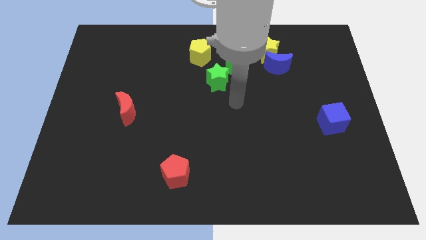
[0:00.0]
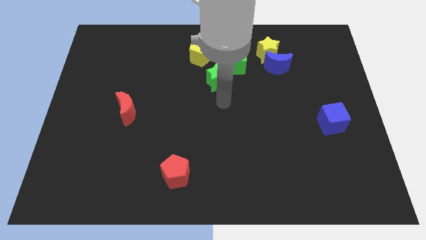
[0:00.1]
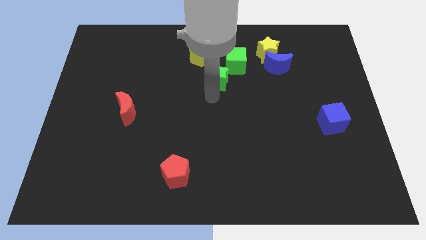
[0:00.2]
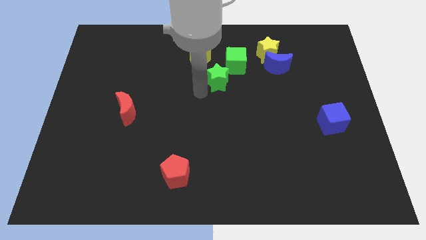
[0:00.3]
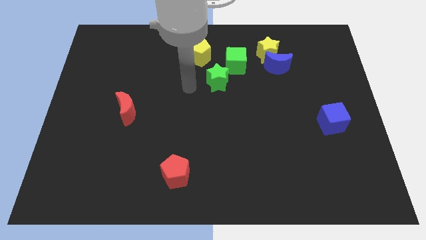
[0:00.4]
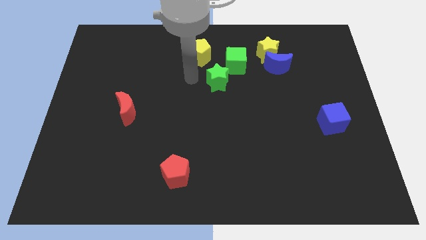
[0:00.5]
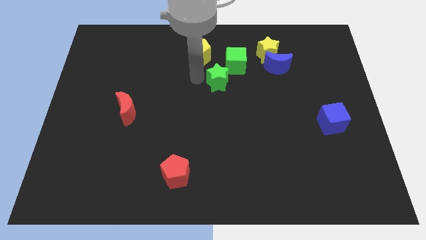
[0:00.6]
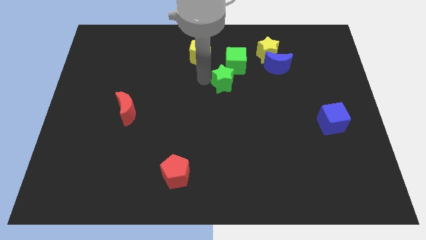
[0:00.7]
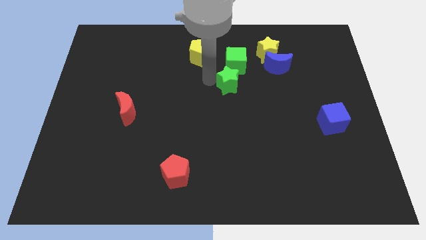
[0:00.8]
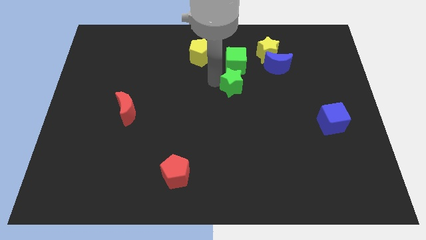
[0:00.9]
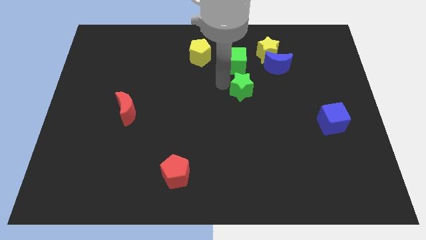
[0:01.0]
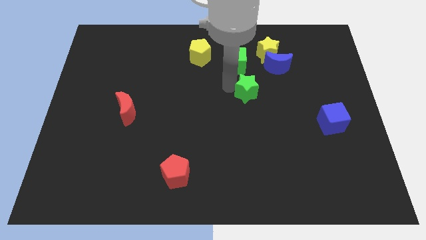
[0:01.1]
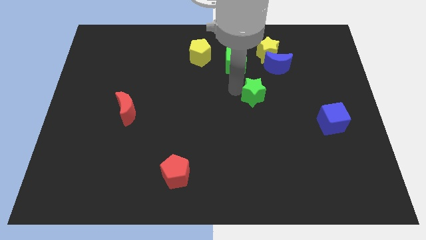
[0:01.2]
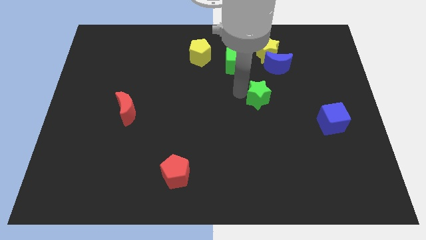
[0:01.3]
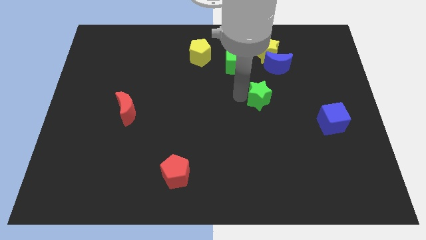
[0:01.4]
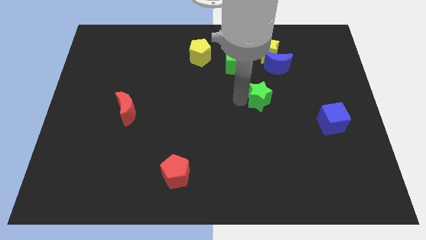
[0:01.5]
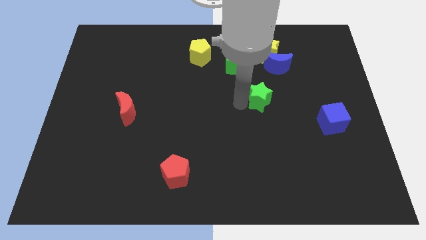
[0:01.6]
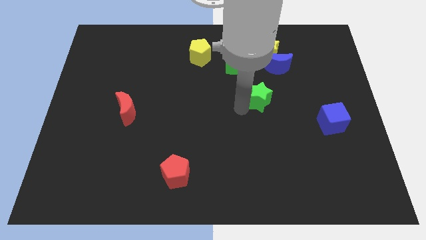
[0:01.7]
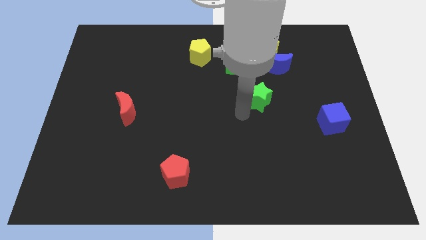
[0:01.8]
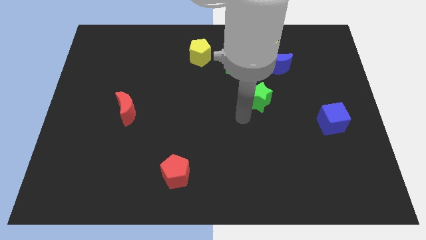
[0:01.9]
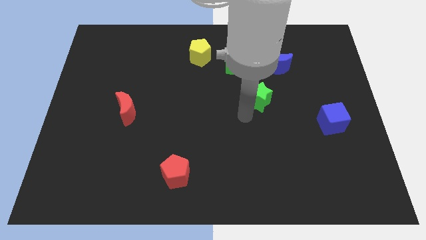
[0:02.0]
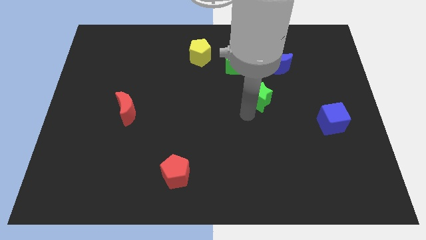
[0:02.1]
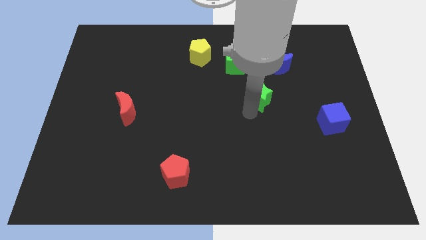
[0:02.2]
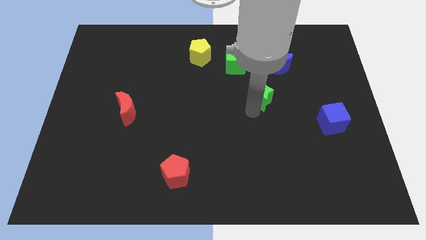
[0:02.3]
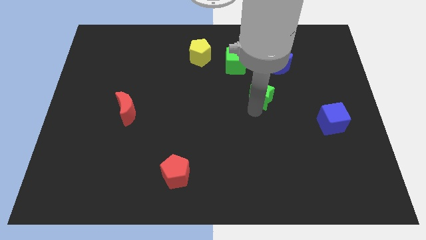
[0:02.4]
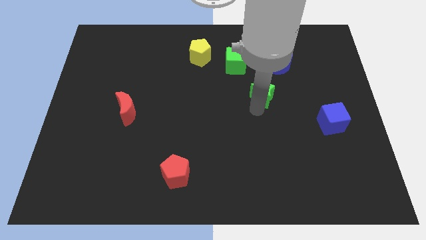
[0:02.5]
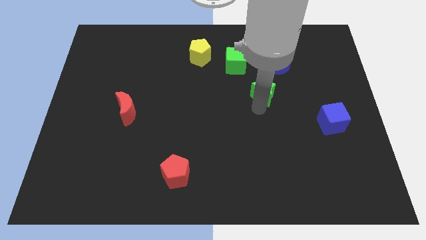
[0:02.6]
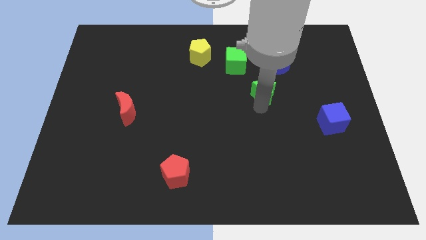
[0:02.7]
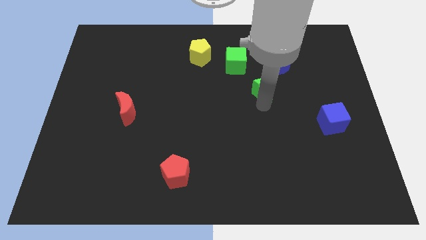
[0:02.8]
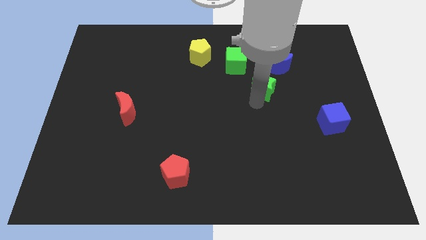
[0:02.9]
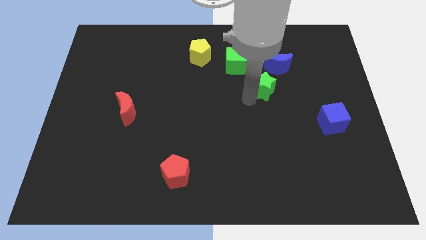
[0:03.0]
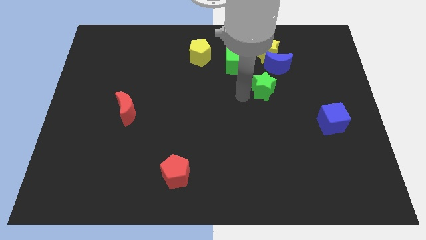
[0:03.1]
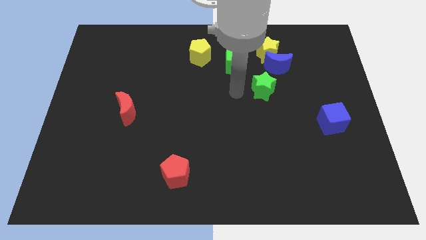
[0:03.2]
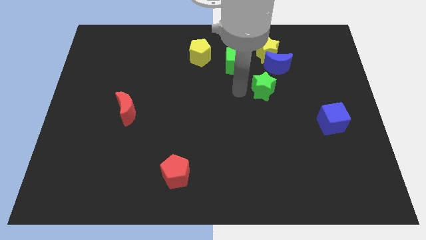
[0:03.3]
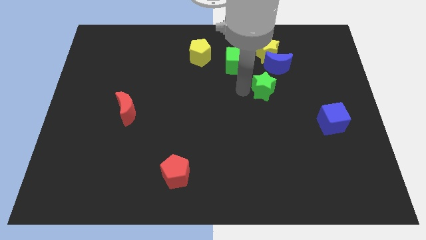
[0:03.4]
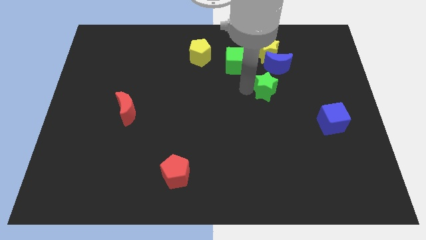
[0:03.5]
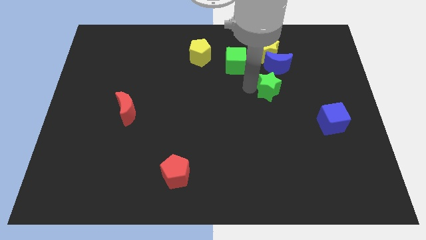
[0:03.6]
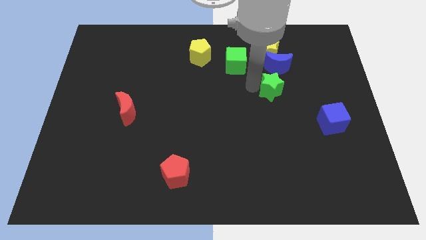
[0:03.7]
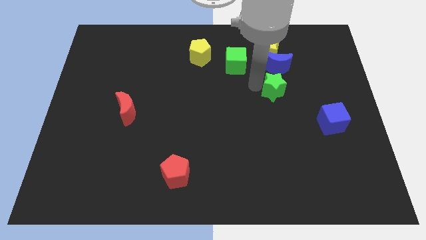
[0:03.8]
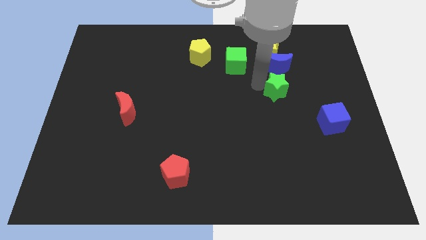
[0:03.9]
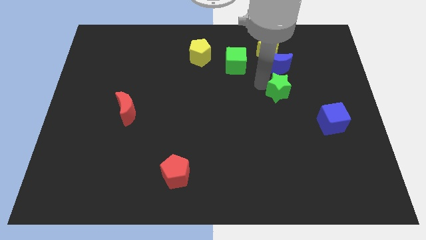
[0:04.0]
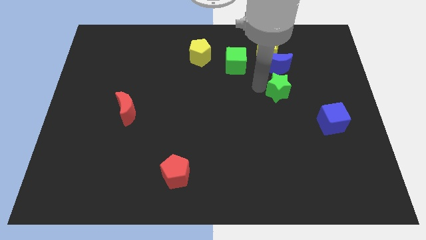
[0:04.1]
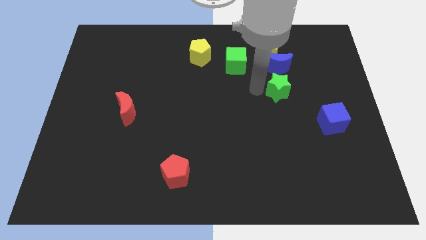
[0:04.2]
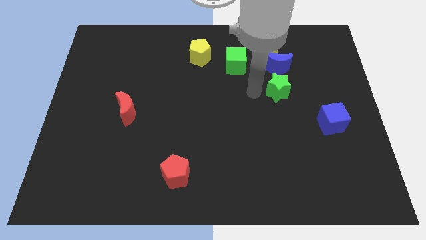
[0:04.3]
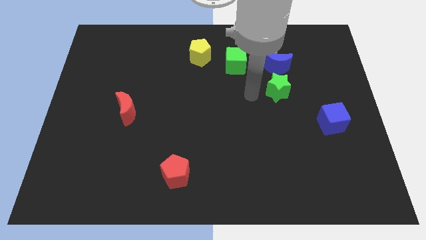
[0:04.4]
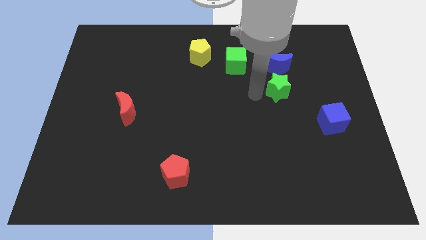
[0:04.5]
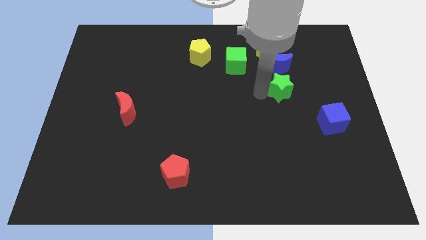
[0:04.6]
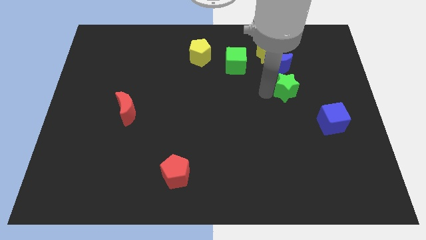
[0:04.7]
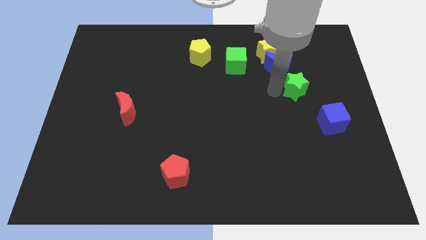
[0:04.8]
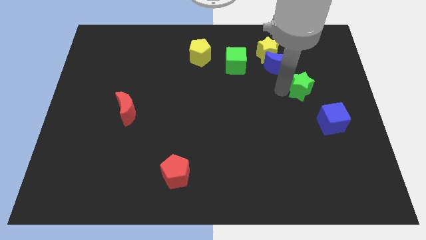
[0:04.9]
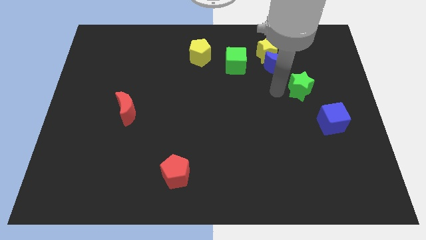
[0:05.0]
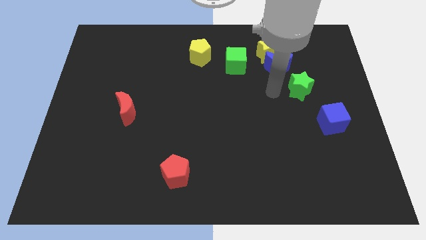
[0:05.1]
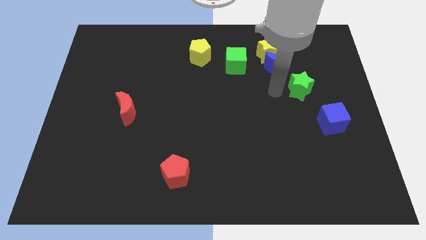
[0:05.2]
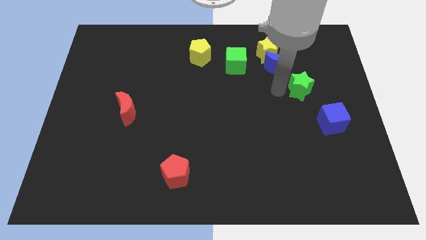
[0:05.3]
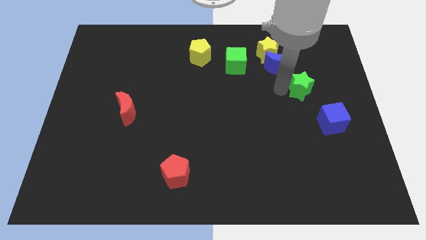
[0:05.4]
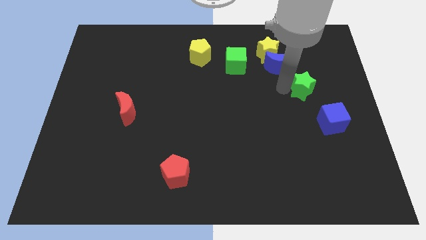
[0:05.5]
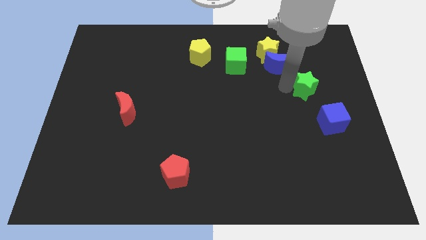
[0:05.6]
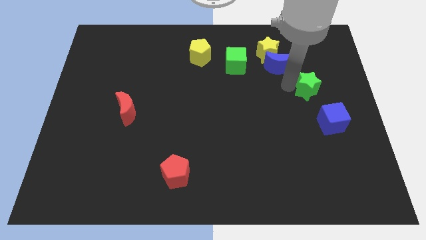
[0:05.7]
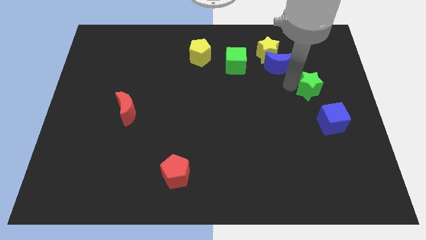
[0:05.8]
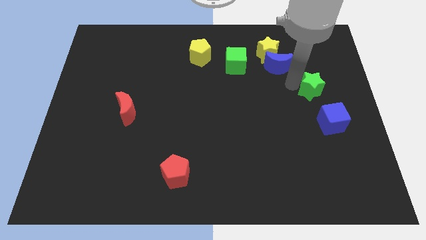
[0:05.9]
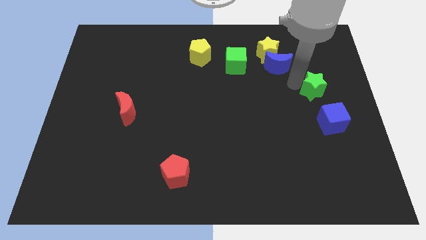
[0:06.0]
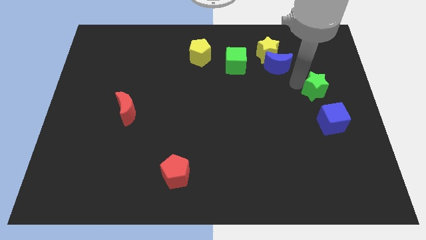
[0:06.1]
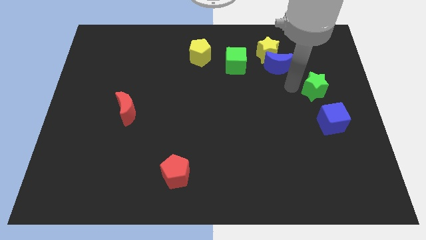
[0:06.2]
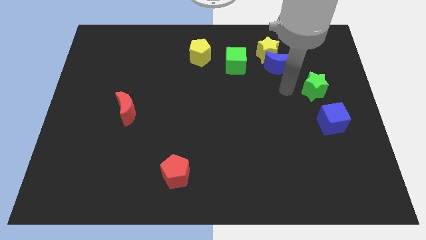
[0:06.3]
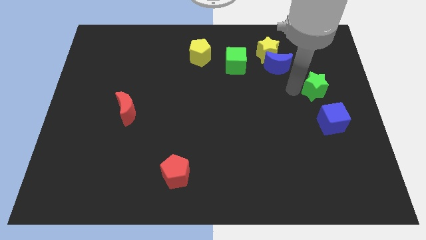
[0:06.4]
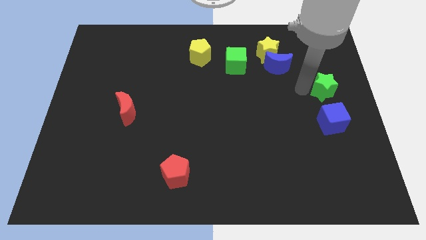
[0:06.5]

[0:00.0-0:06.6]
push the green star to the center right
